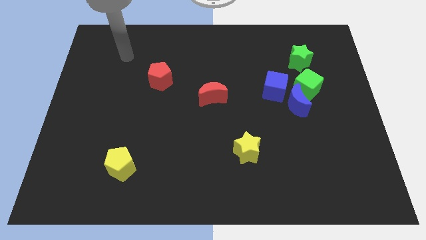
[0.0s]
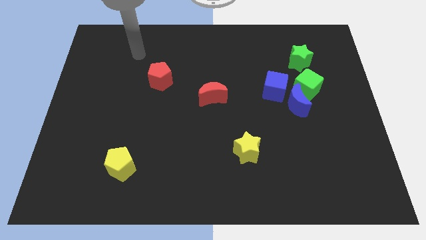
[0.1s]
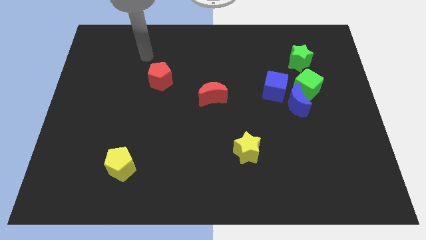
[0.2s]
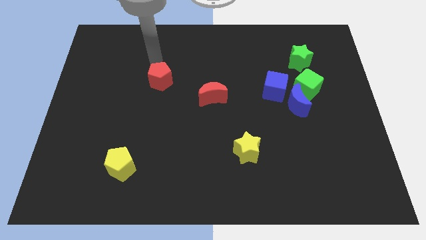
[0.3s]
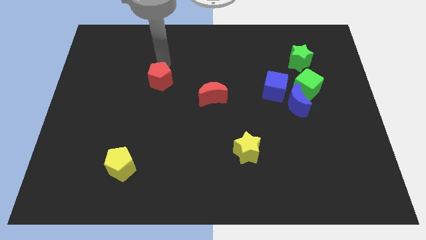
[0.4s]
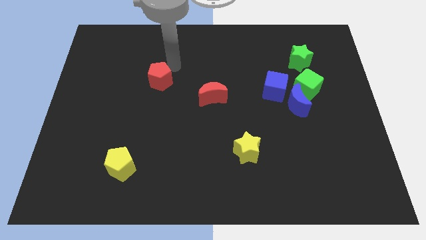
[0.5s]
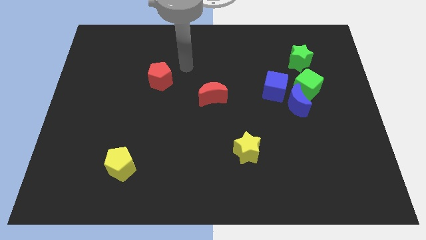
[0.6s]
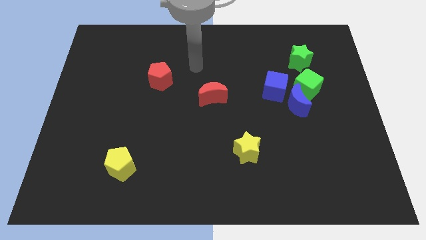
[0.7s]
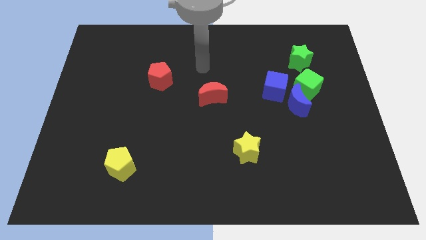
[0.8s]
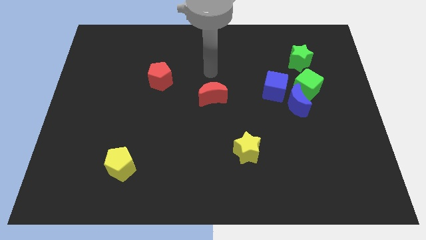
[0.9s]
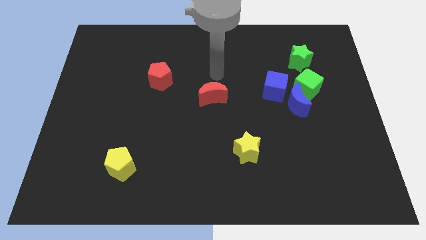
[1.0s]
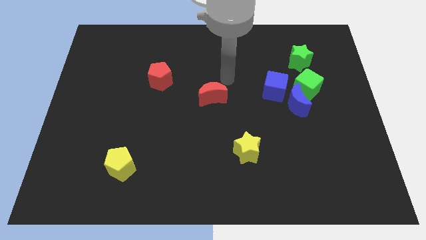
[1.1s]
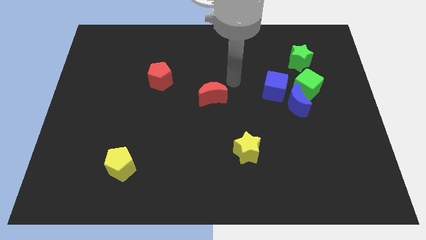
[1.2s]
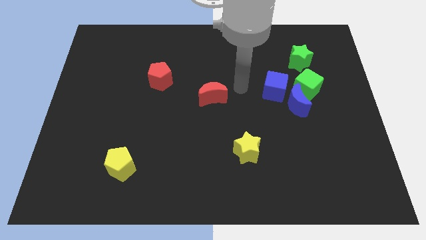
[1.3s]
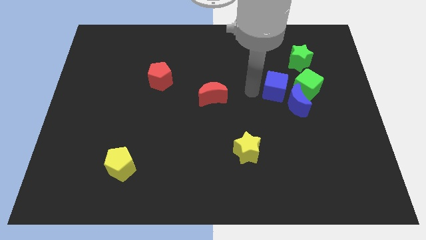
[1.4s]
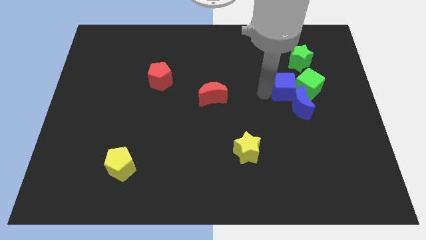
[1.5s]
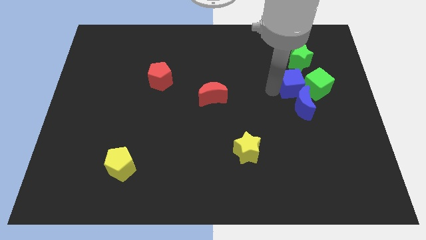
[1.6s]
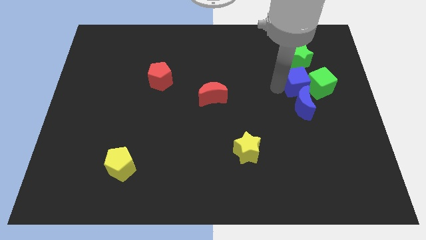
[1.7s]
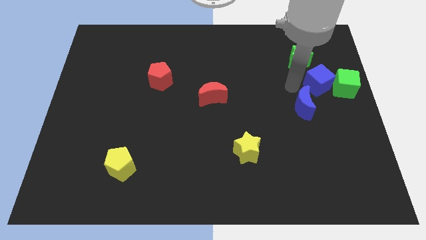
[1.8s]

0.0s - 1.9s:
separate the blue moon from the green cube and blue cube

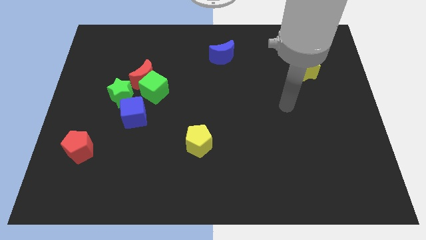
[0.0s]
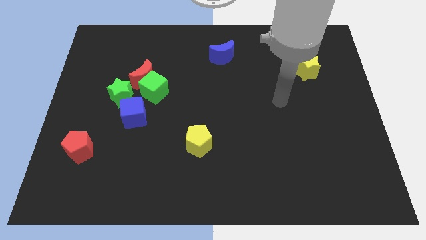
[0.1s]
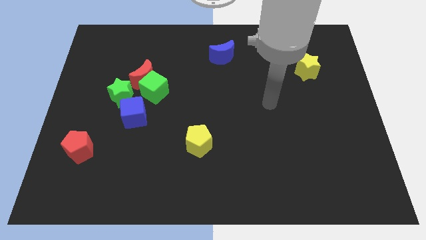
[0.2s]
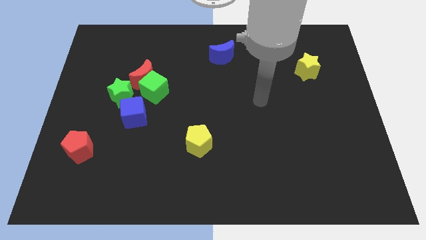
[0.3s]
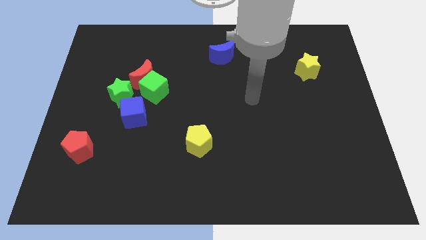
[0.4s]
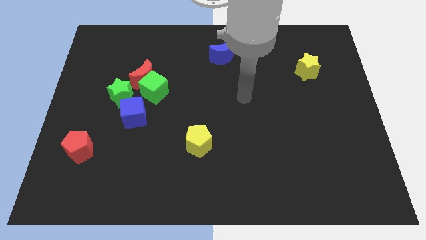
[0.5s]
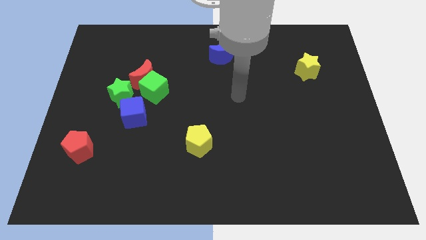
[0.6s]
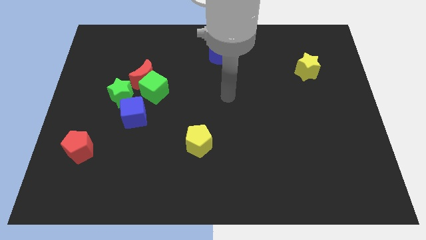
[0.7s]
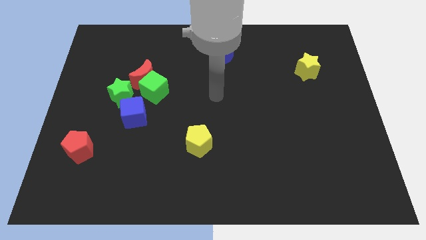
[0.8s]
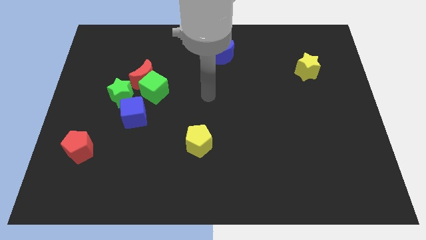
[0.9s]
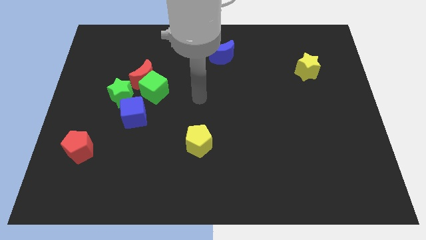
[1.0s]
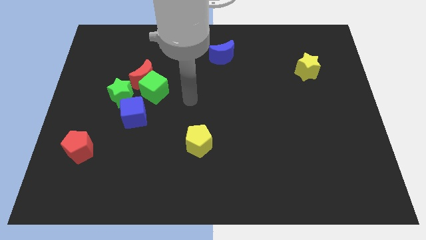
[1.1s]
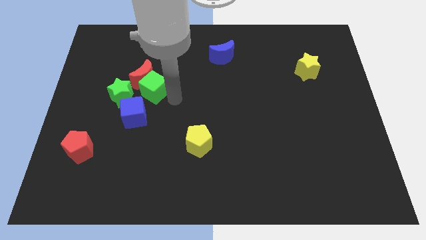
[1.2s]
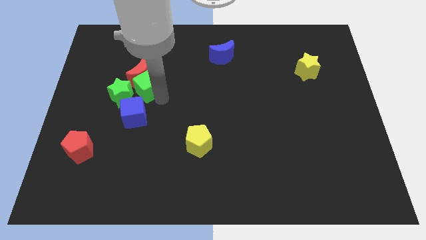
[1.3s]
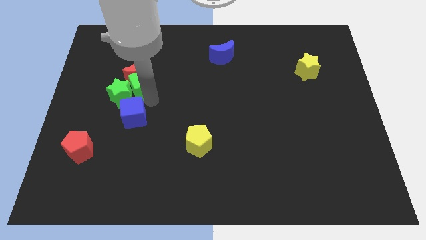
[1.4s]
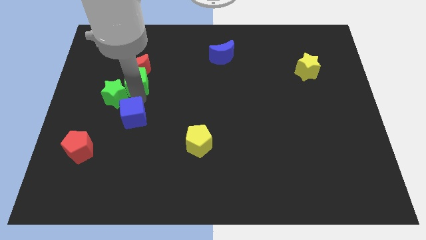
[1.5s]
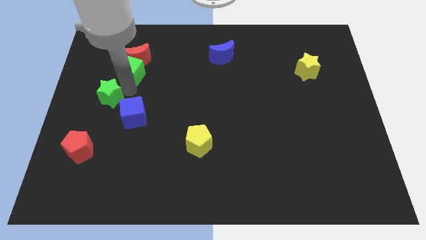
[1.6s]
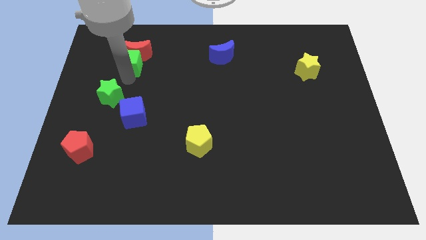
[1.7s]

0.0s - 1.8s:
pull the red moon apart from the green cube and green star

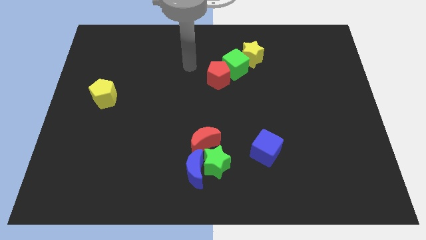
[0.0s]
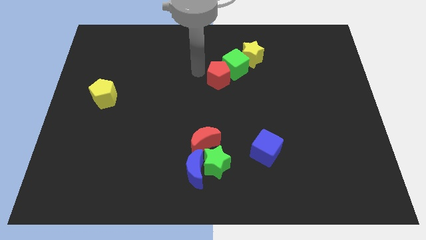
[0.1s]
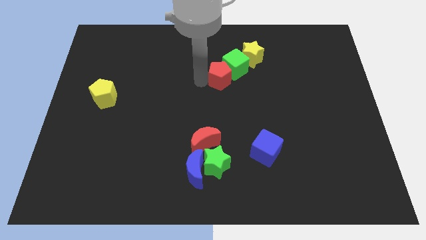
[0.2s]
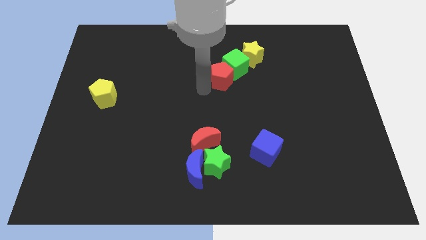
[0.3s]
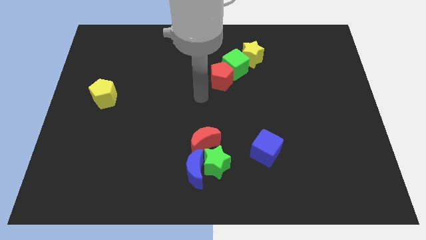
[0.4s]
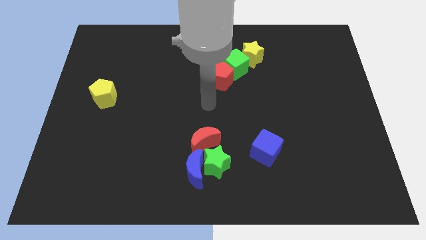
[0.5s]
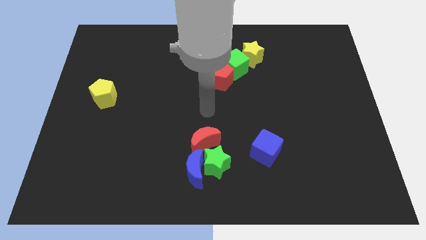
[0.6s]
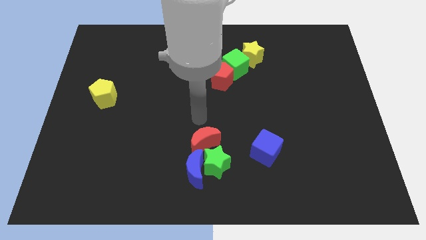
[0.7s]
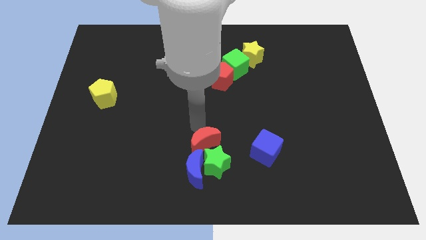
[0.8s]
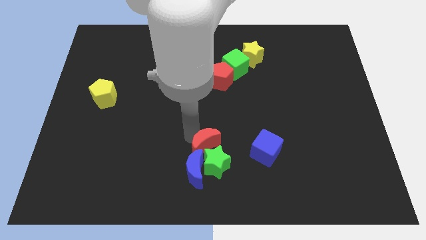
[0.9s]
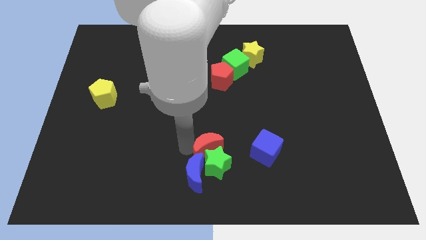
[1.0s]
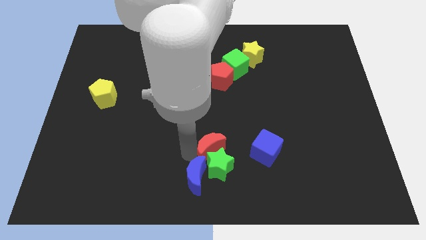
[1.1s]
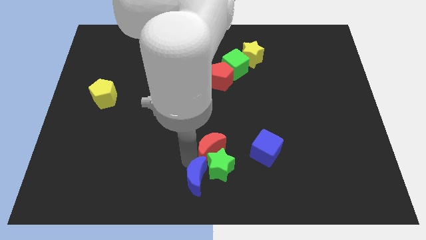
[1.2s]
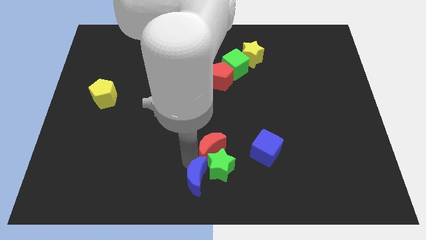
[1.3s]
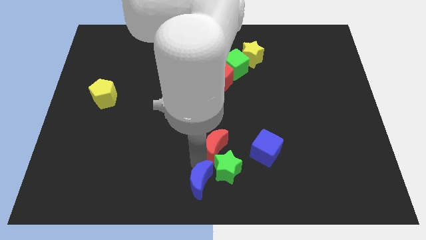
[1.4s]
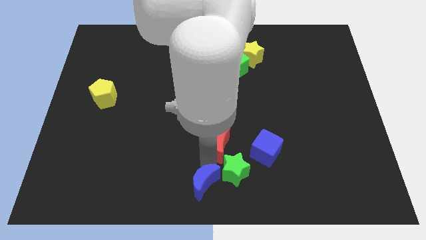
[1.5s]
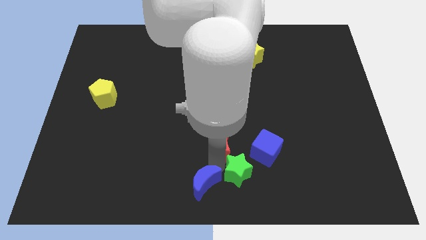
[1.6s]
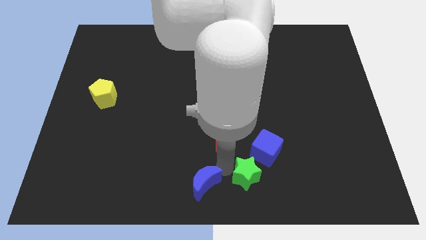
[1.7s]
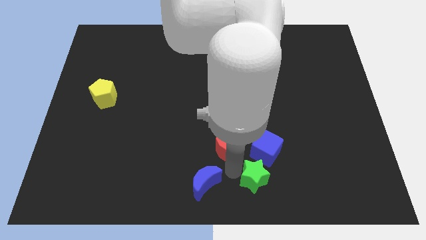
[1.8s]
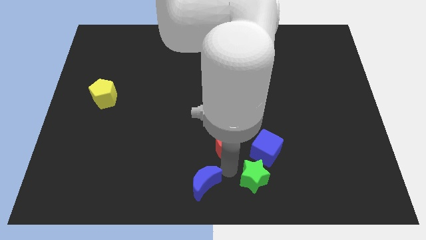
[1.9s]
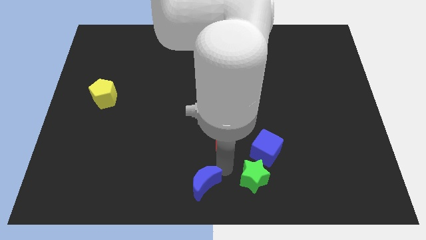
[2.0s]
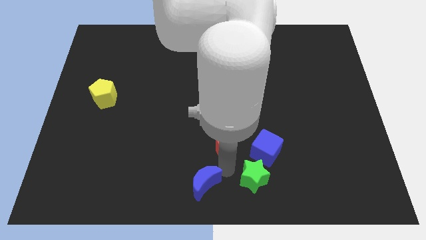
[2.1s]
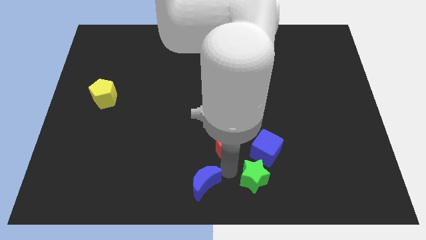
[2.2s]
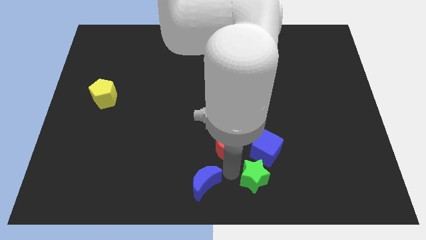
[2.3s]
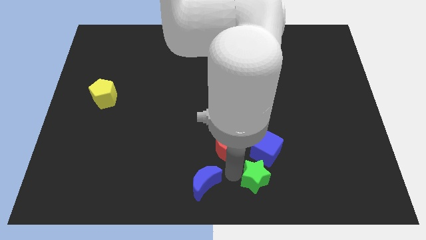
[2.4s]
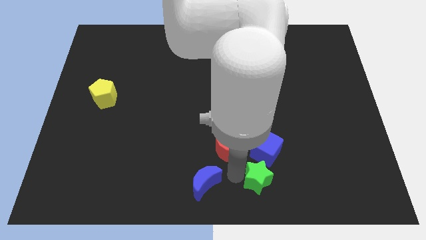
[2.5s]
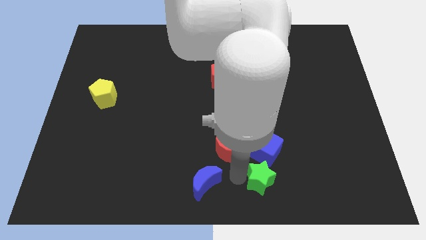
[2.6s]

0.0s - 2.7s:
separate the green star from the blue moon and red moon

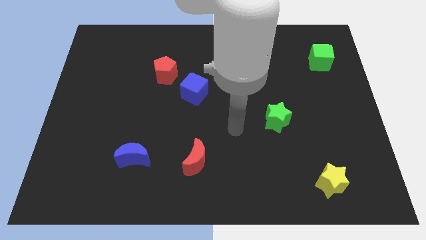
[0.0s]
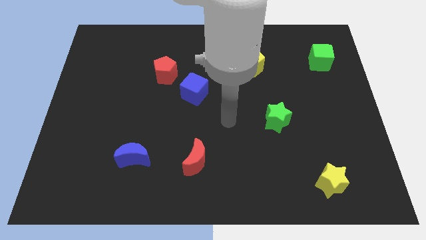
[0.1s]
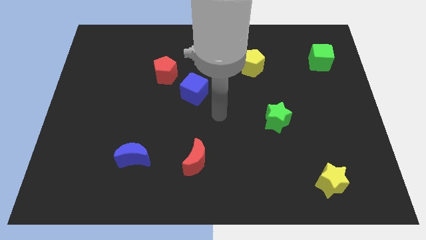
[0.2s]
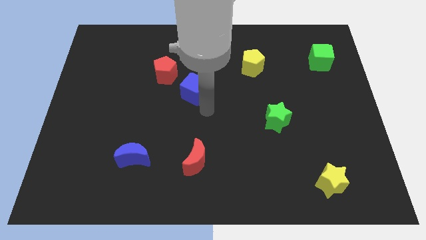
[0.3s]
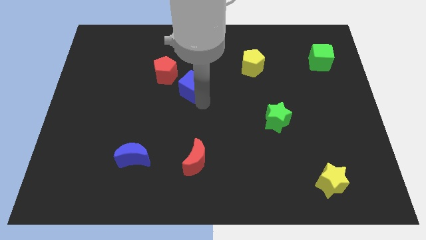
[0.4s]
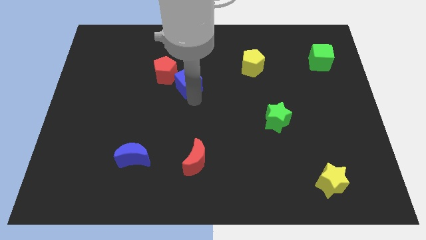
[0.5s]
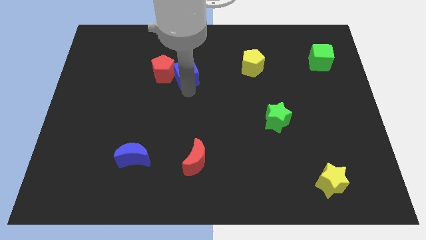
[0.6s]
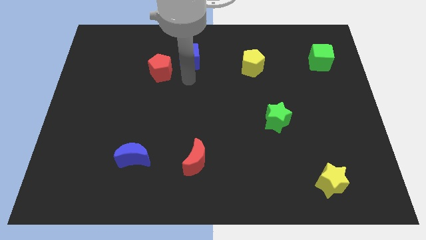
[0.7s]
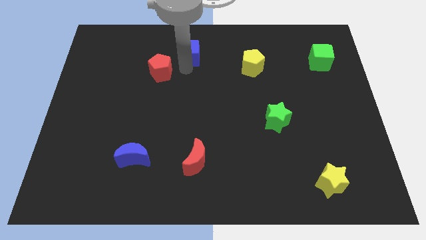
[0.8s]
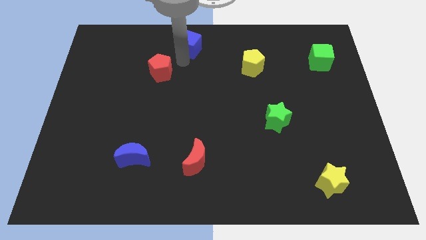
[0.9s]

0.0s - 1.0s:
separate the red pentagon from the blue cube

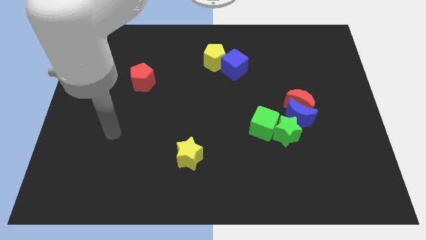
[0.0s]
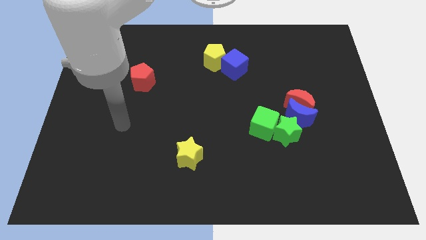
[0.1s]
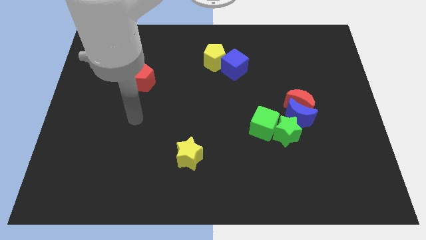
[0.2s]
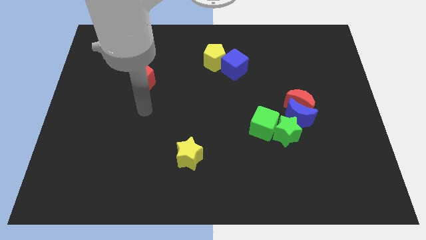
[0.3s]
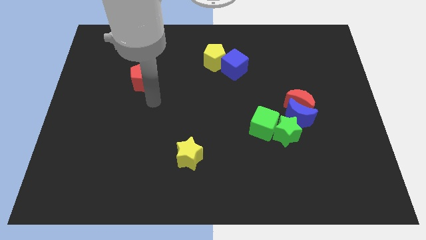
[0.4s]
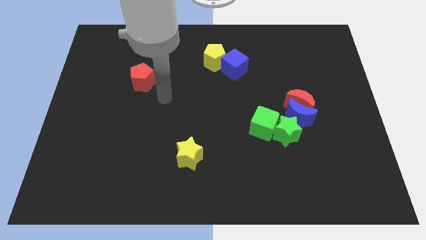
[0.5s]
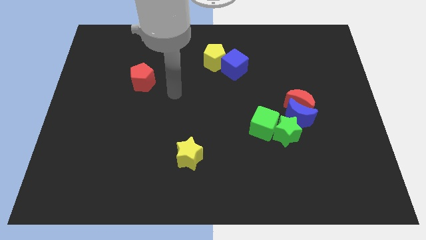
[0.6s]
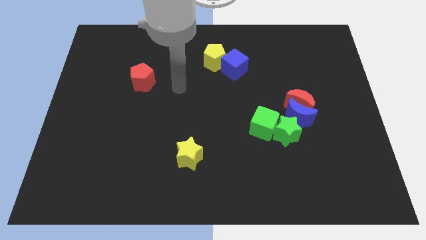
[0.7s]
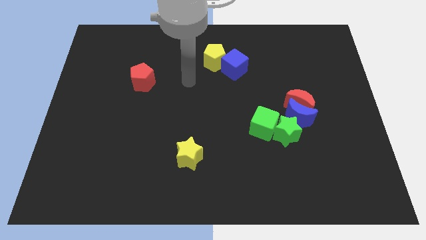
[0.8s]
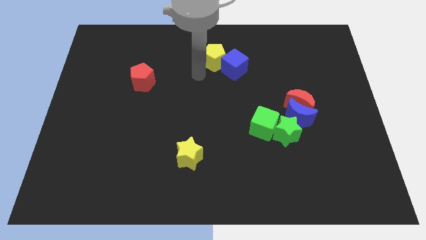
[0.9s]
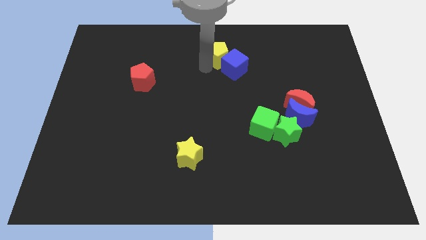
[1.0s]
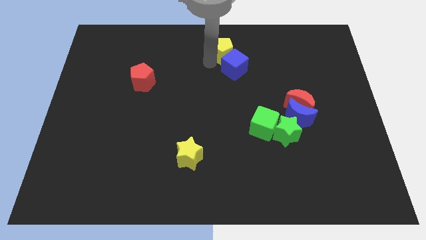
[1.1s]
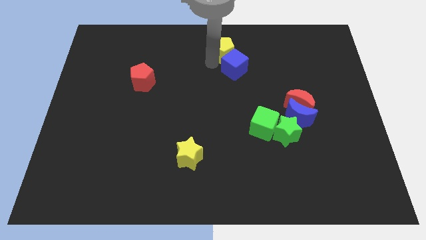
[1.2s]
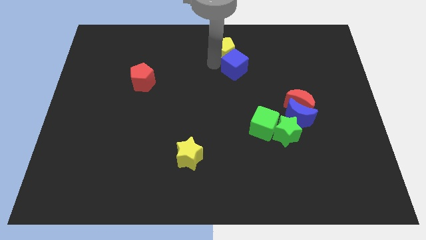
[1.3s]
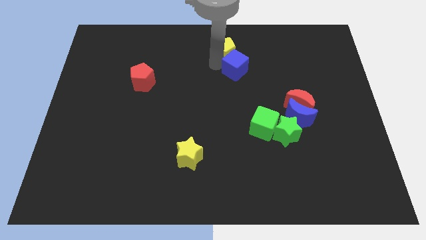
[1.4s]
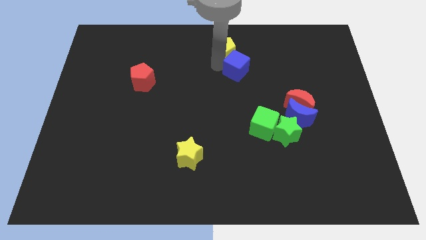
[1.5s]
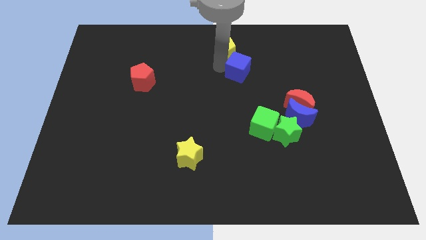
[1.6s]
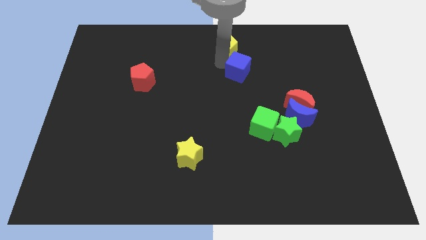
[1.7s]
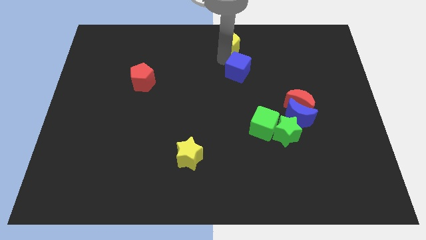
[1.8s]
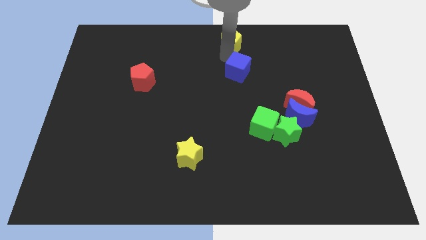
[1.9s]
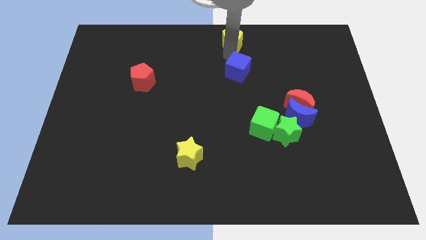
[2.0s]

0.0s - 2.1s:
move the blue cube away from the yellow pentagon

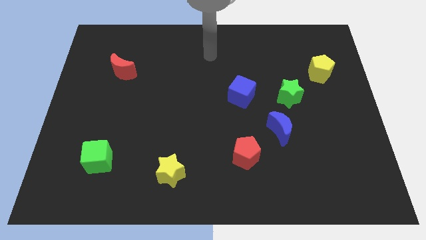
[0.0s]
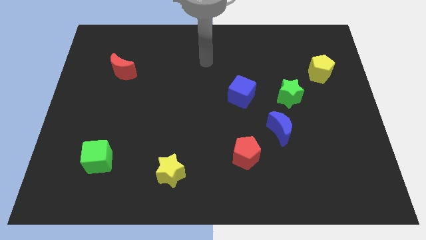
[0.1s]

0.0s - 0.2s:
move the blue moon away from the green star
